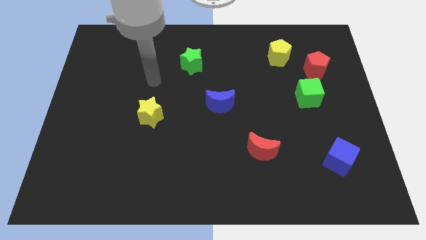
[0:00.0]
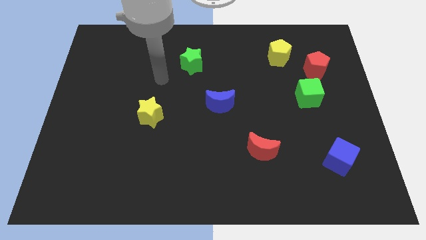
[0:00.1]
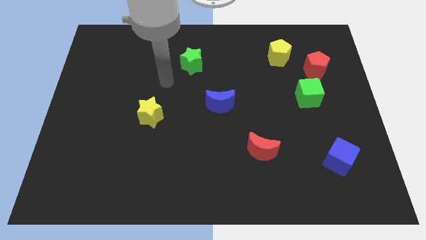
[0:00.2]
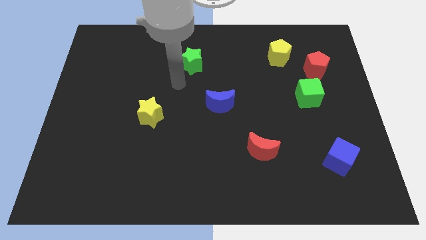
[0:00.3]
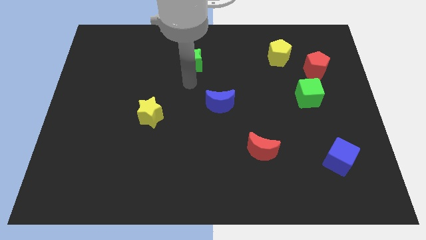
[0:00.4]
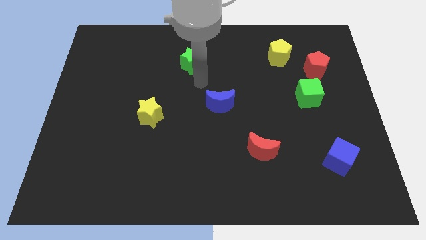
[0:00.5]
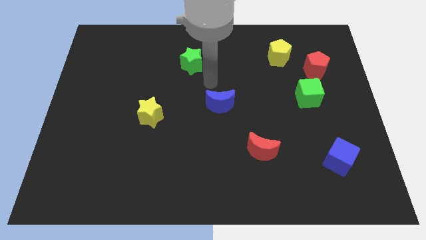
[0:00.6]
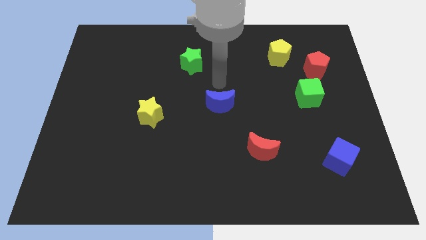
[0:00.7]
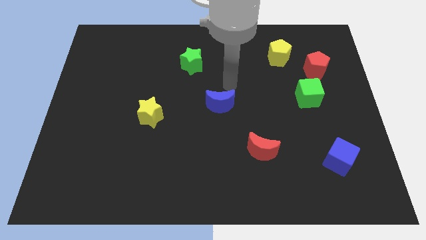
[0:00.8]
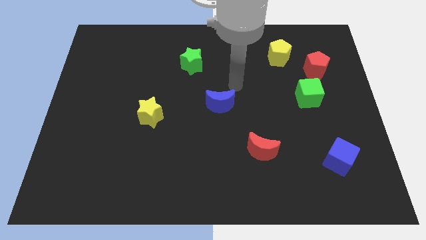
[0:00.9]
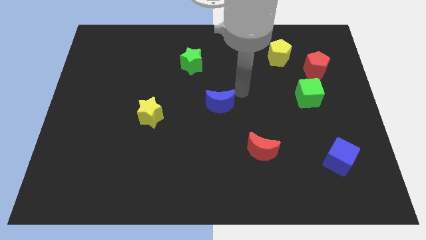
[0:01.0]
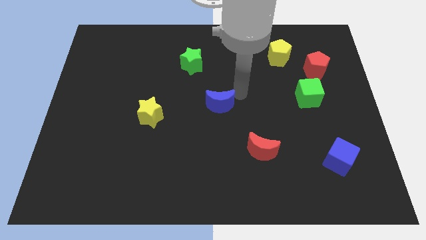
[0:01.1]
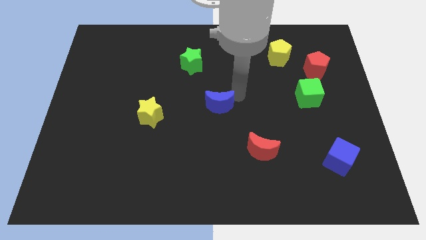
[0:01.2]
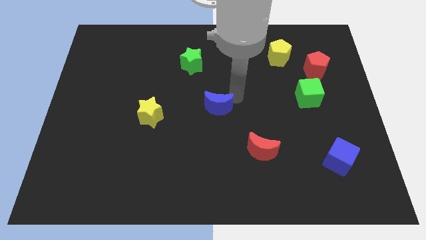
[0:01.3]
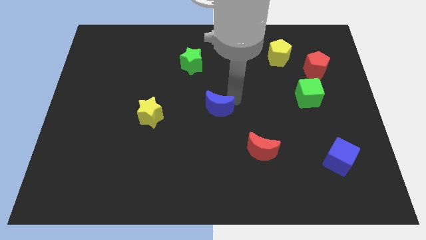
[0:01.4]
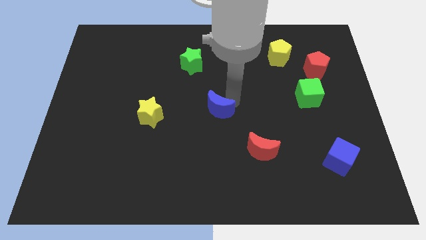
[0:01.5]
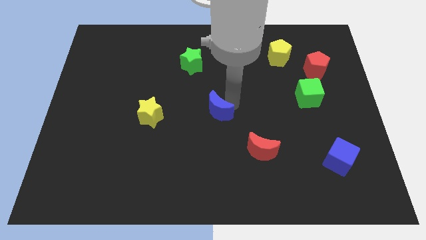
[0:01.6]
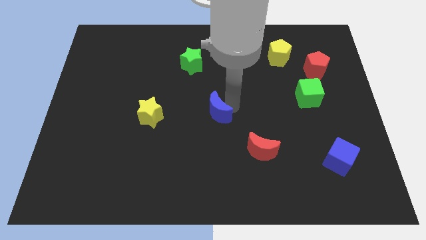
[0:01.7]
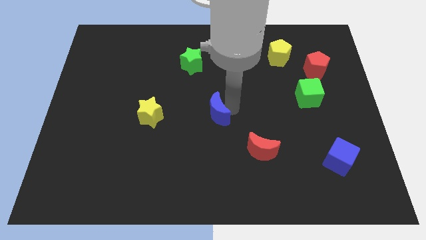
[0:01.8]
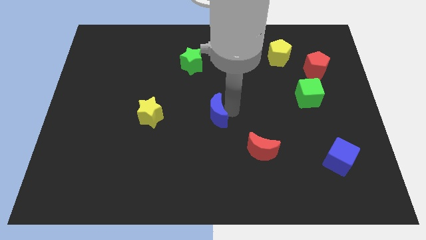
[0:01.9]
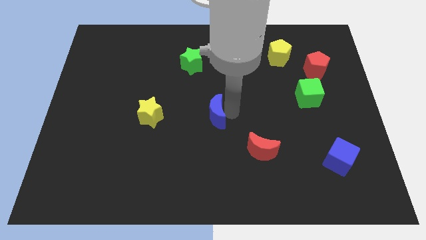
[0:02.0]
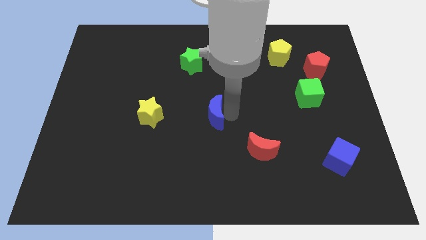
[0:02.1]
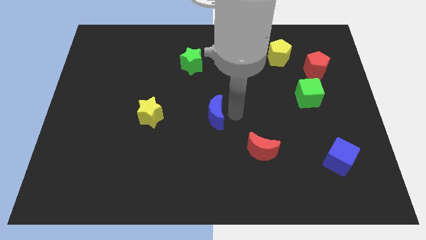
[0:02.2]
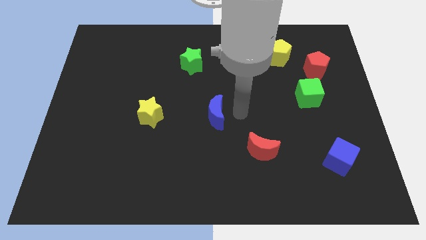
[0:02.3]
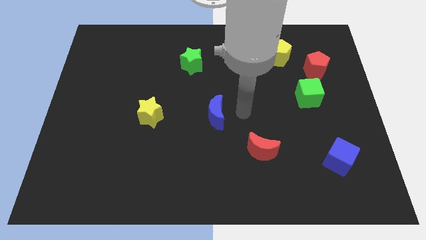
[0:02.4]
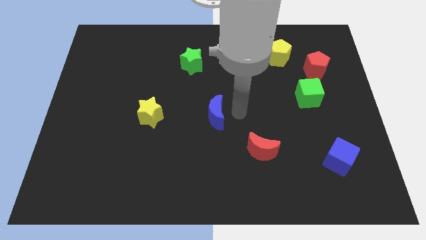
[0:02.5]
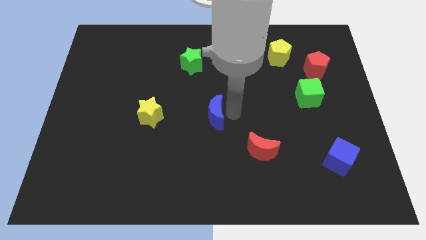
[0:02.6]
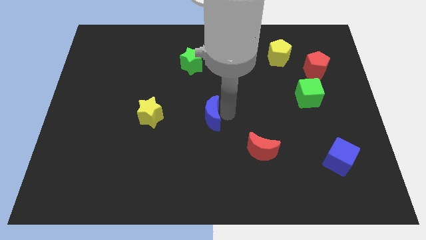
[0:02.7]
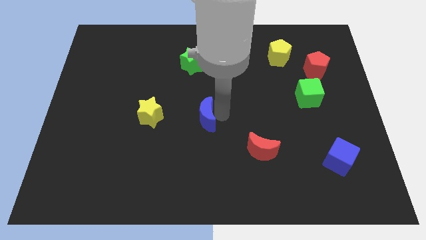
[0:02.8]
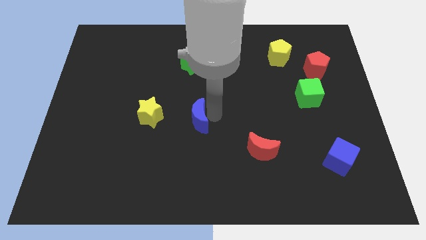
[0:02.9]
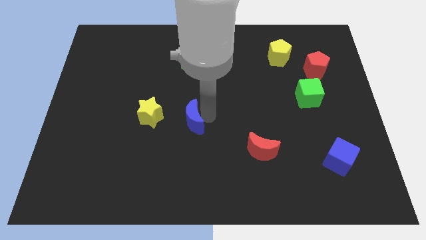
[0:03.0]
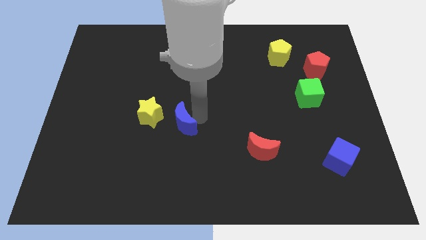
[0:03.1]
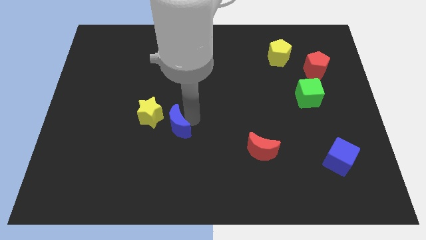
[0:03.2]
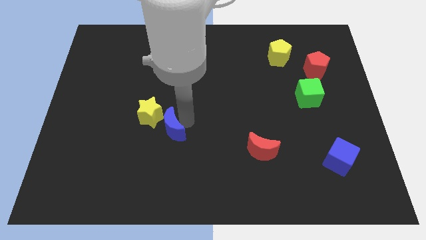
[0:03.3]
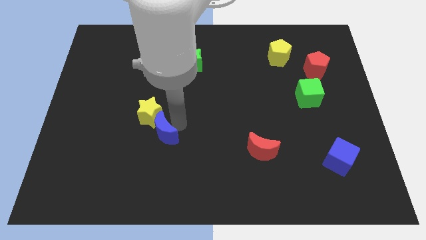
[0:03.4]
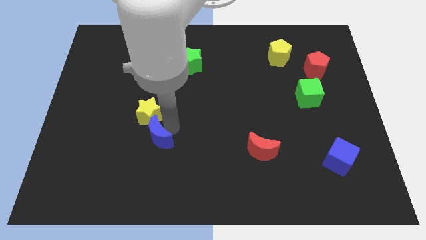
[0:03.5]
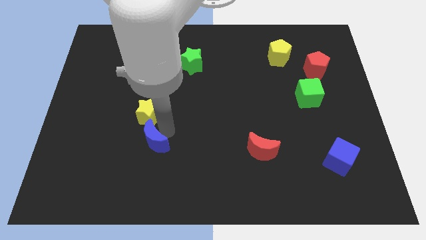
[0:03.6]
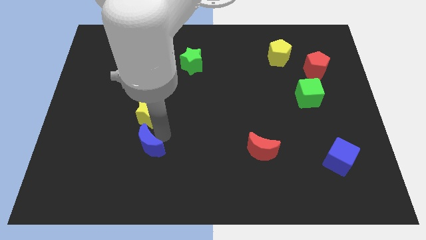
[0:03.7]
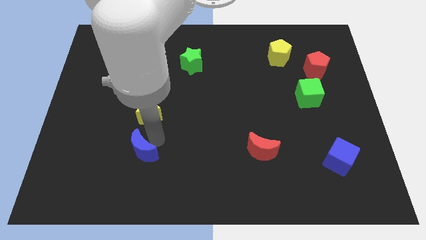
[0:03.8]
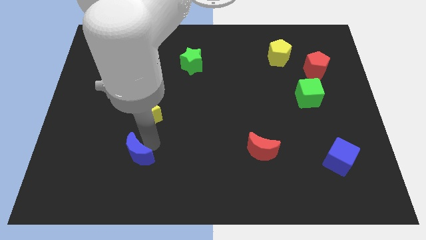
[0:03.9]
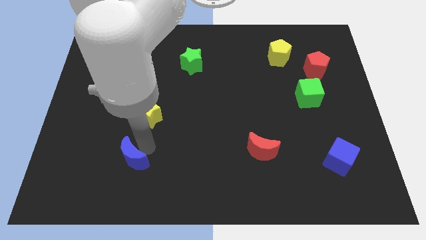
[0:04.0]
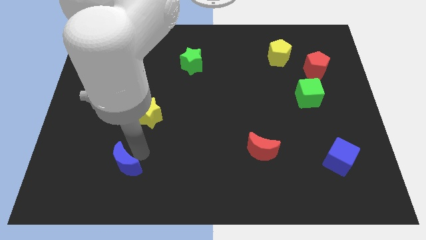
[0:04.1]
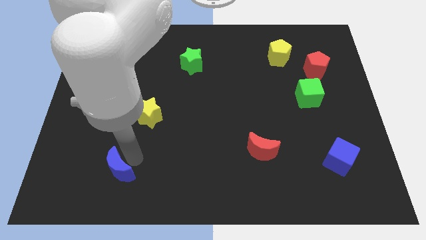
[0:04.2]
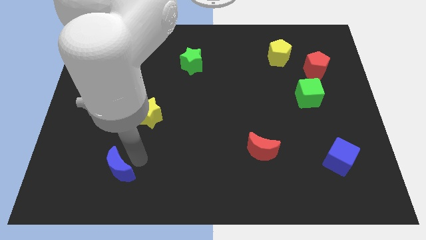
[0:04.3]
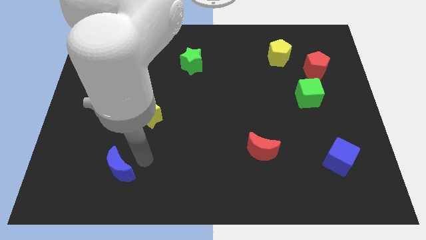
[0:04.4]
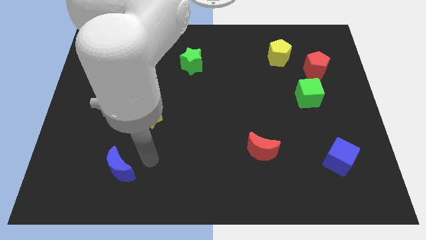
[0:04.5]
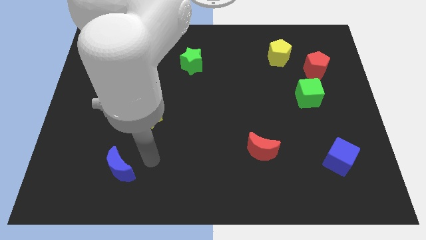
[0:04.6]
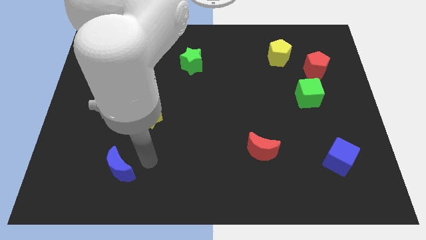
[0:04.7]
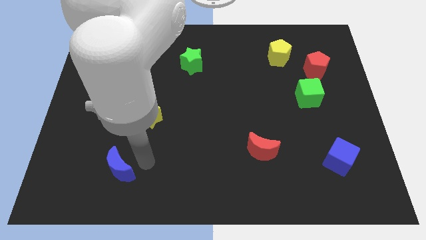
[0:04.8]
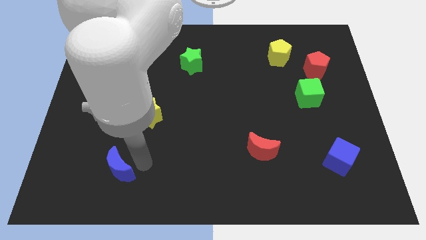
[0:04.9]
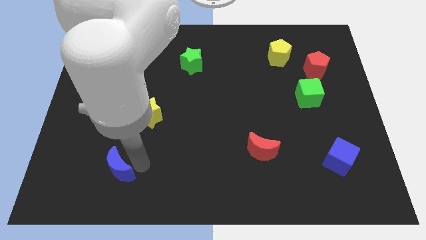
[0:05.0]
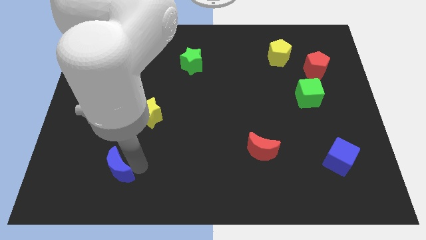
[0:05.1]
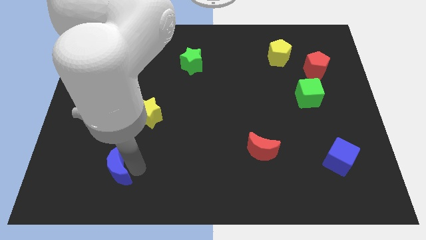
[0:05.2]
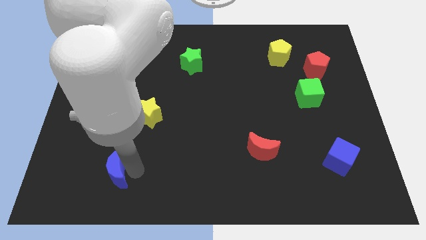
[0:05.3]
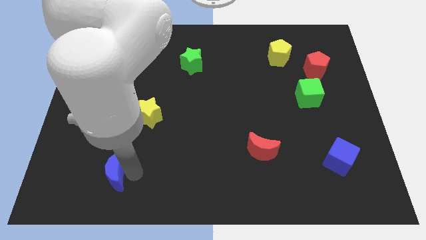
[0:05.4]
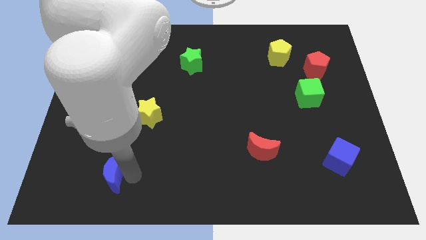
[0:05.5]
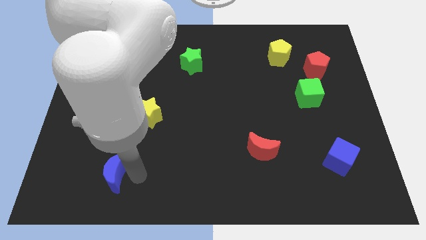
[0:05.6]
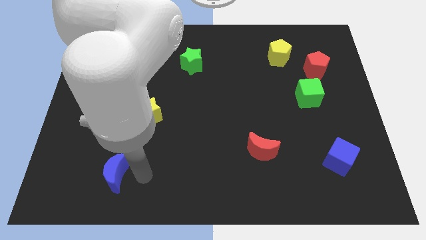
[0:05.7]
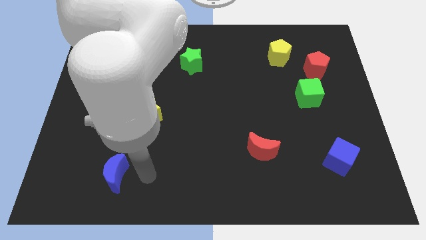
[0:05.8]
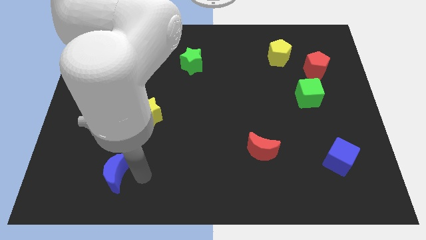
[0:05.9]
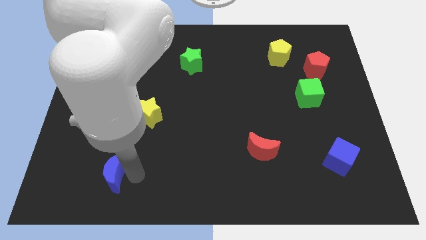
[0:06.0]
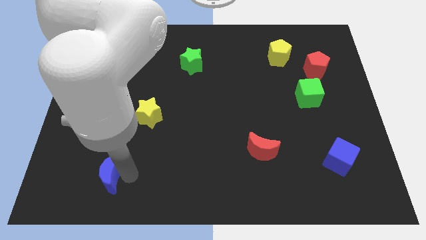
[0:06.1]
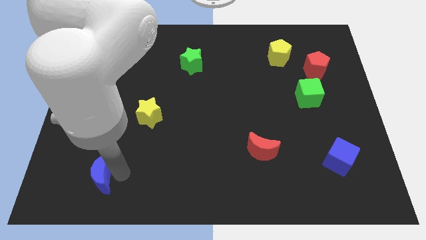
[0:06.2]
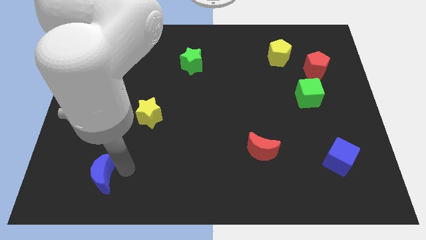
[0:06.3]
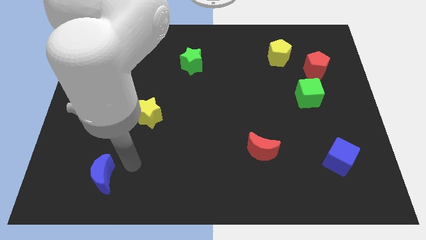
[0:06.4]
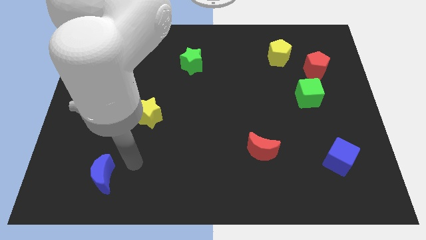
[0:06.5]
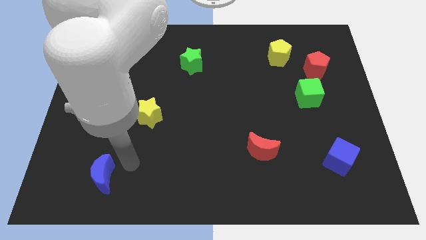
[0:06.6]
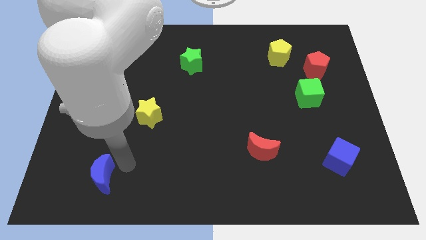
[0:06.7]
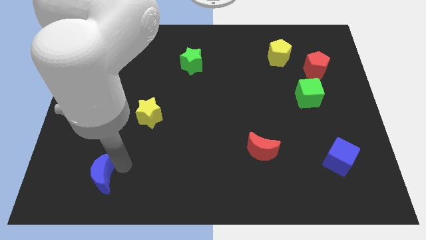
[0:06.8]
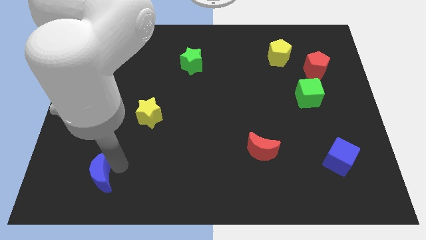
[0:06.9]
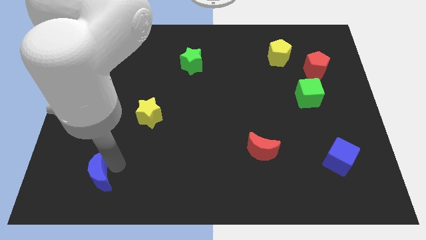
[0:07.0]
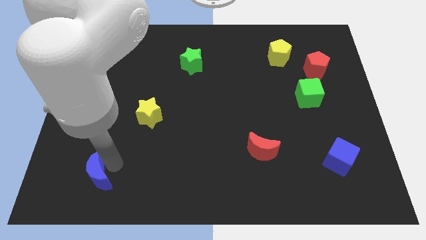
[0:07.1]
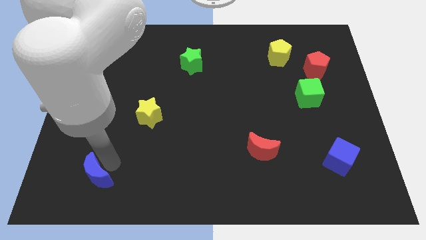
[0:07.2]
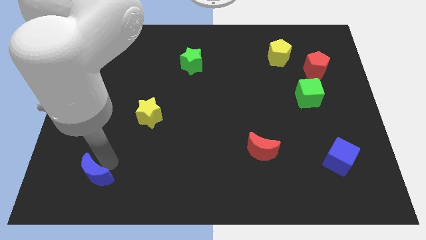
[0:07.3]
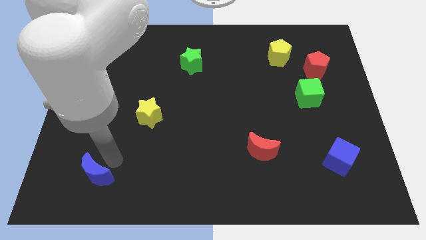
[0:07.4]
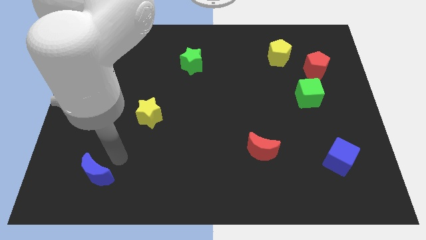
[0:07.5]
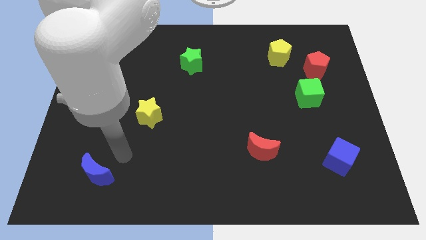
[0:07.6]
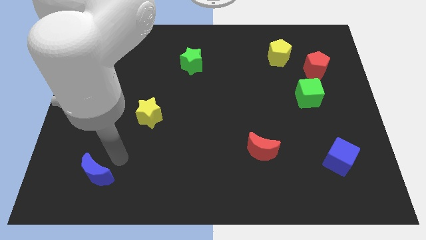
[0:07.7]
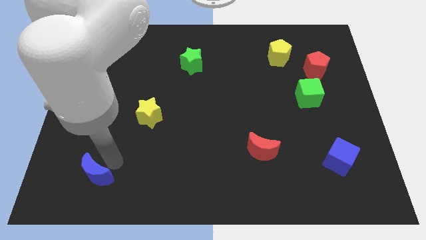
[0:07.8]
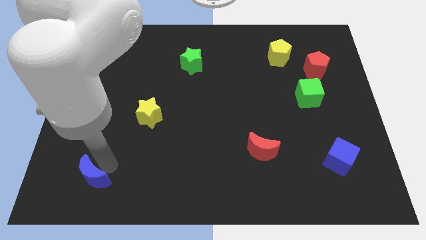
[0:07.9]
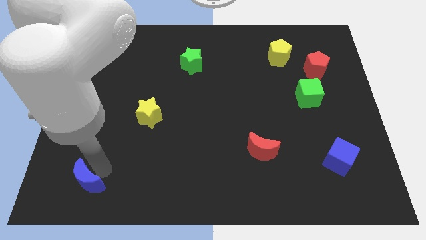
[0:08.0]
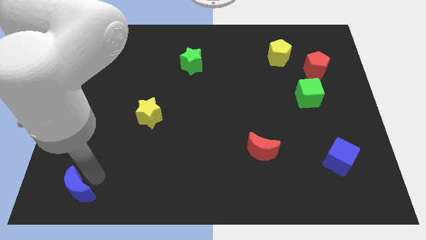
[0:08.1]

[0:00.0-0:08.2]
push the blue moon to the bottom left corner
